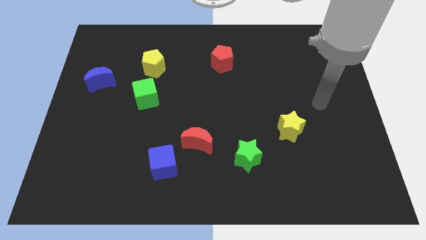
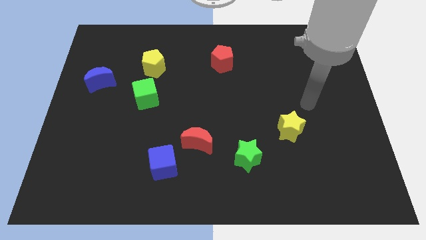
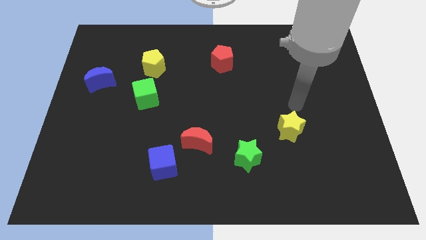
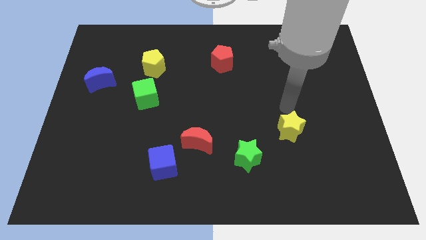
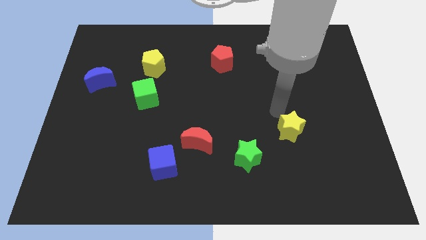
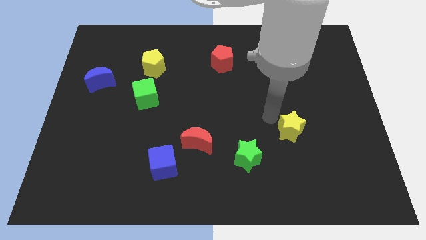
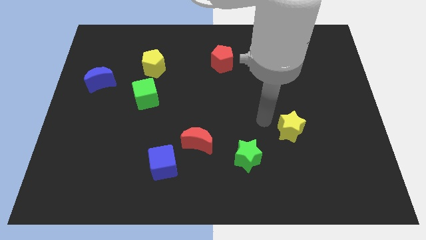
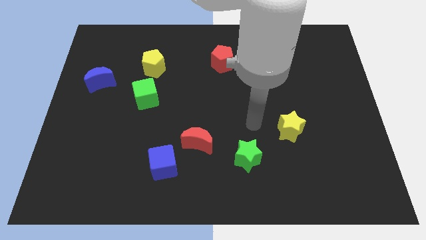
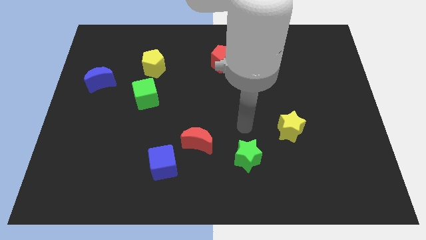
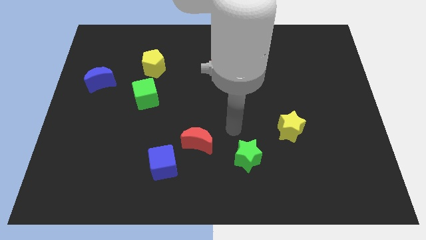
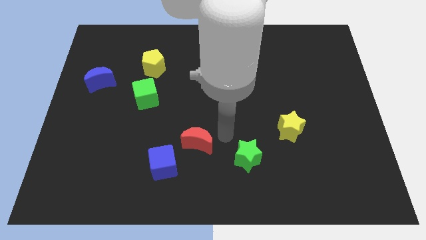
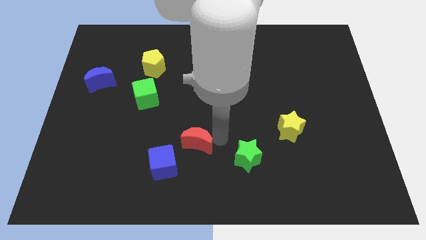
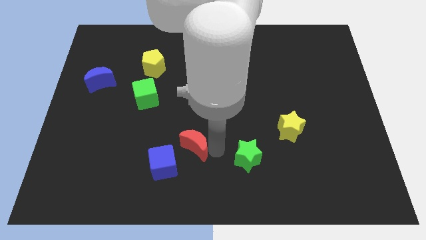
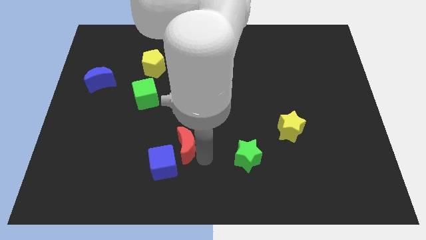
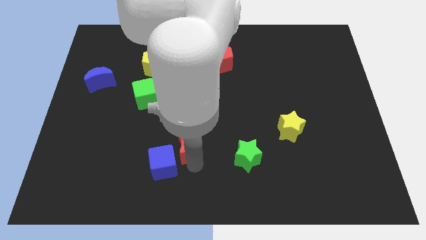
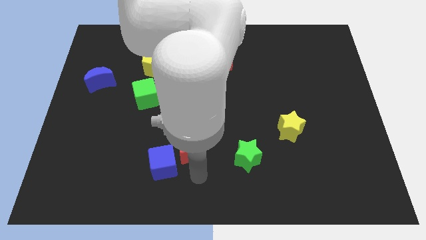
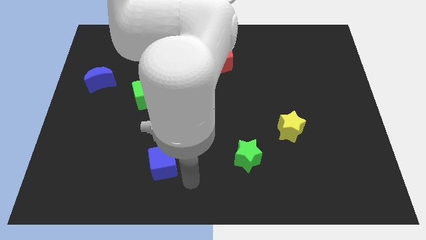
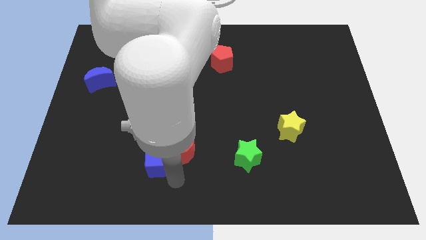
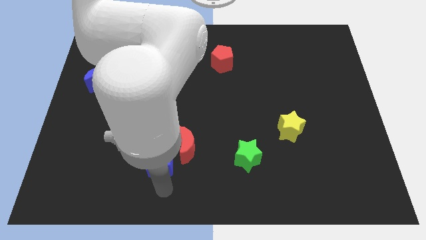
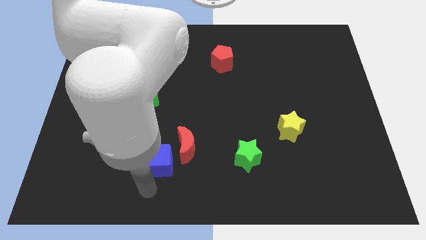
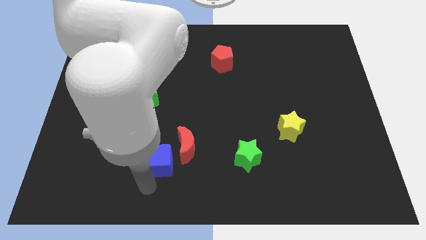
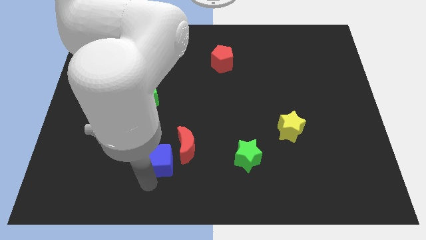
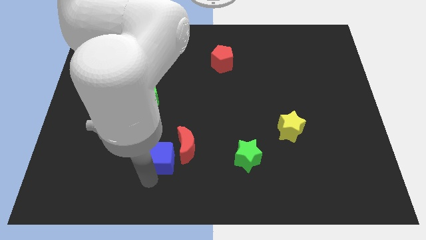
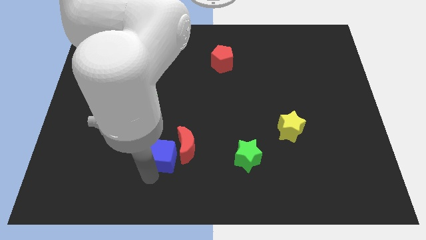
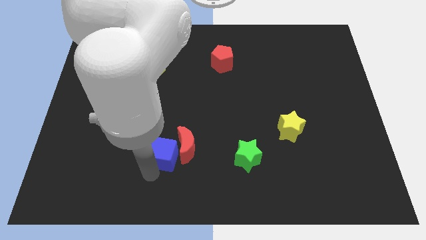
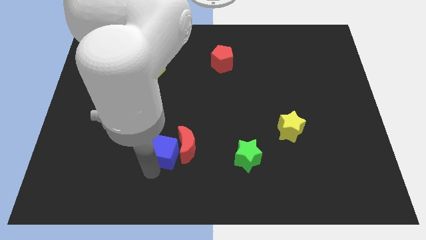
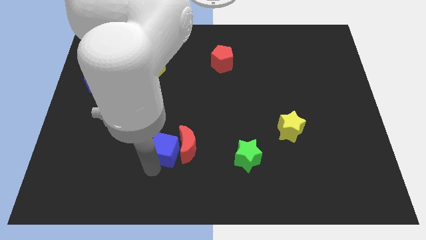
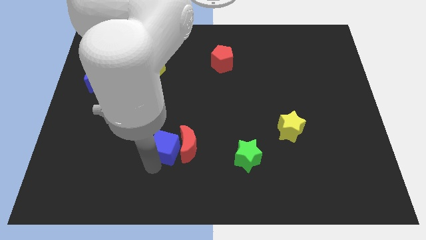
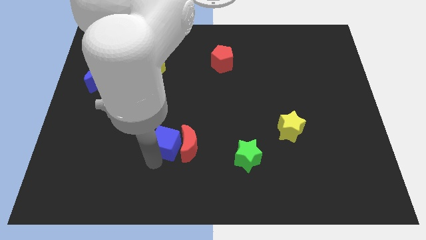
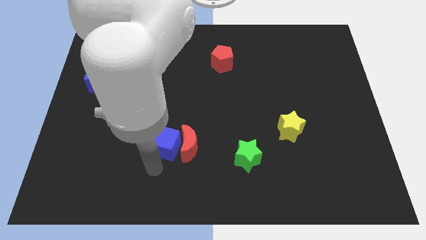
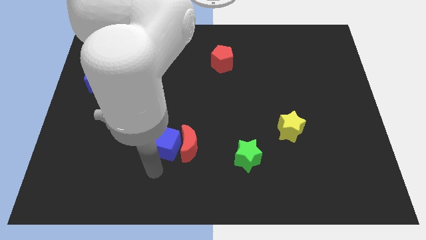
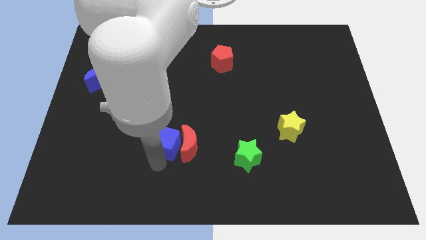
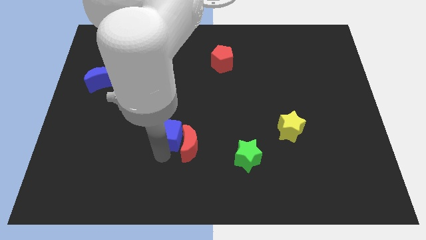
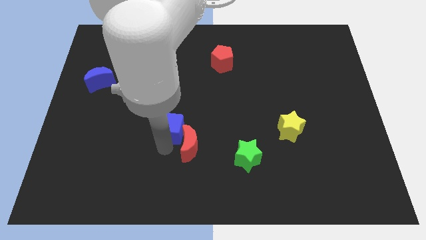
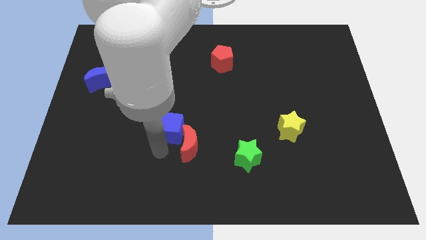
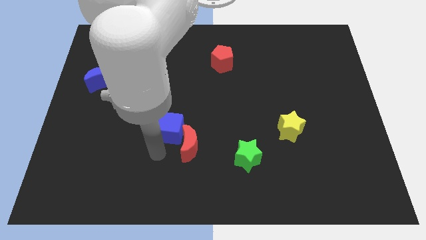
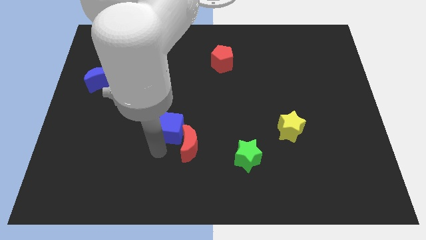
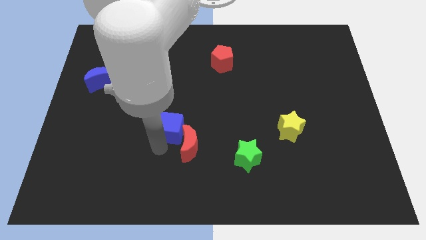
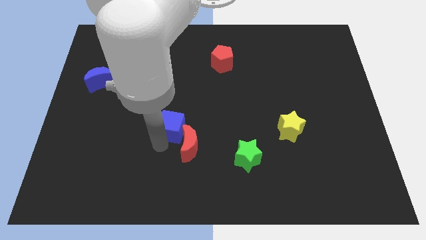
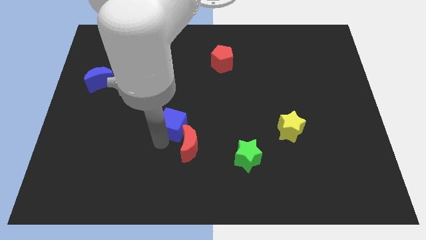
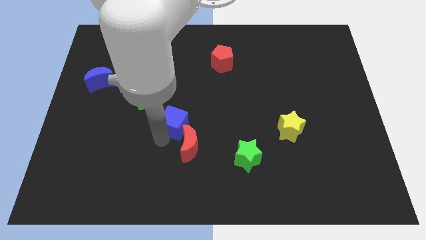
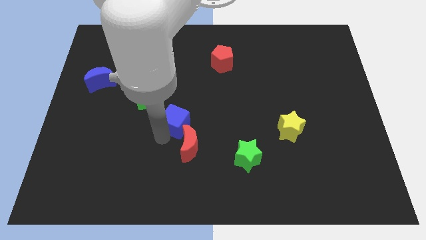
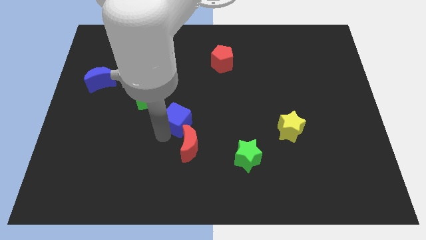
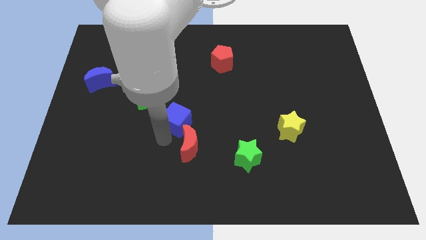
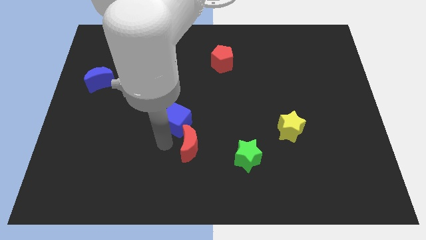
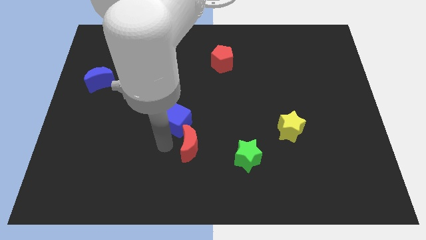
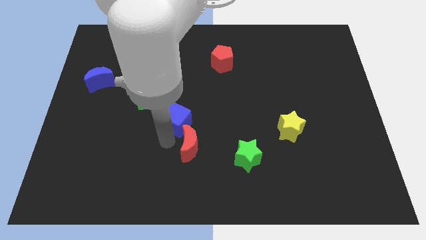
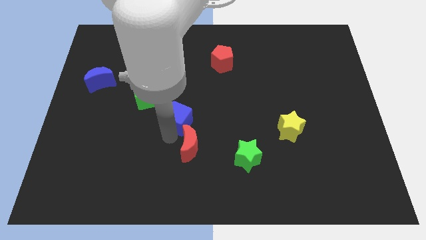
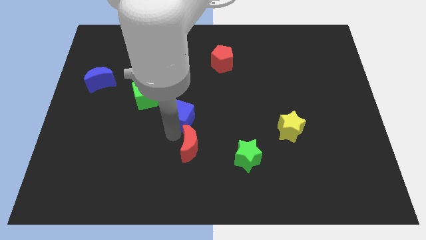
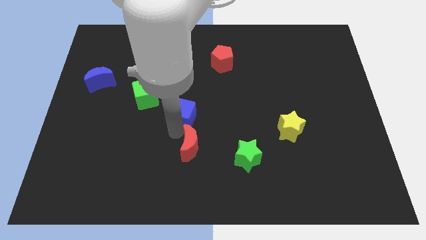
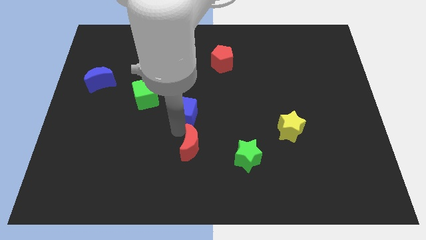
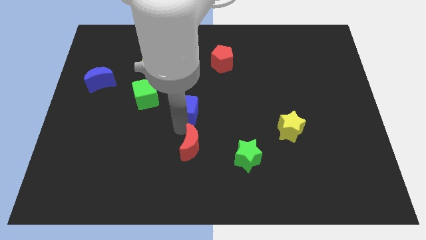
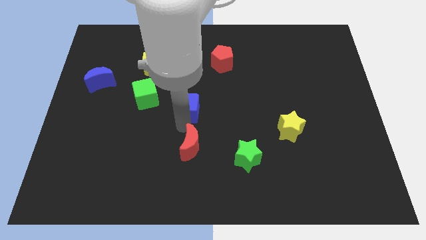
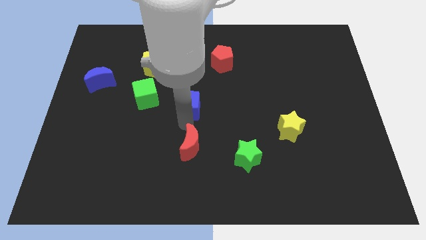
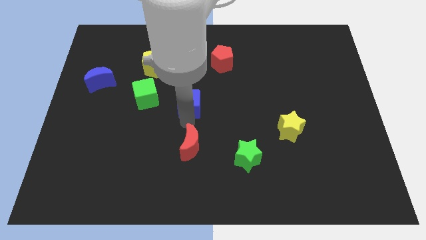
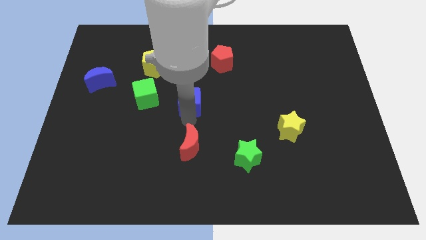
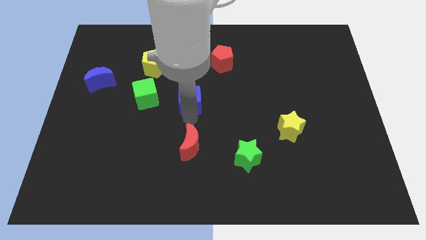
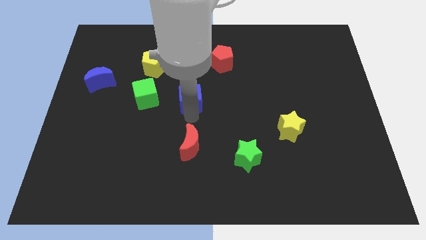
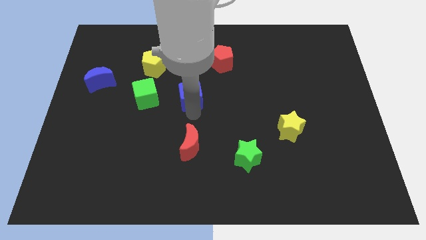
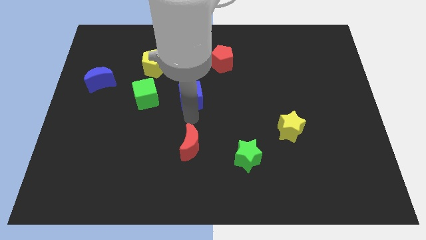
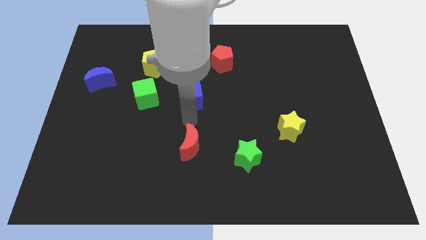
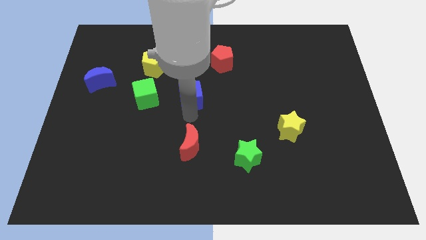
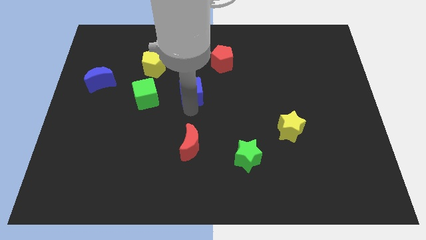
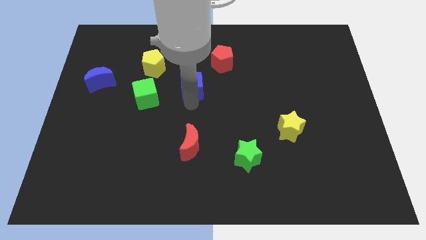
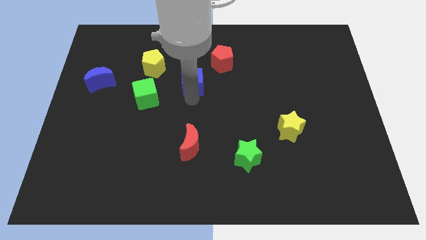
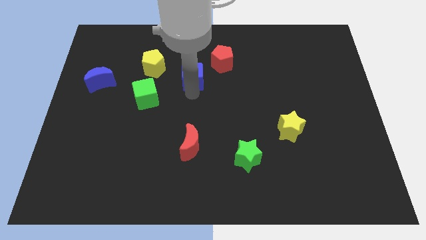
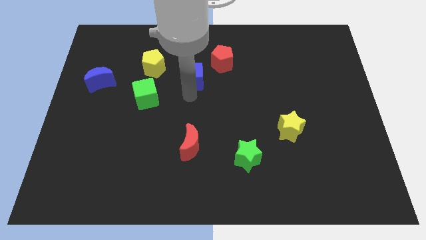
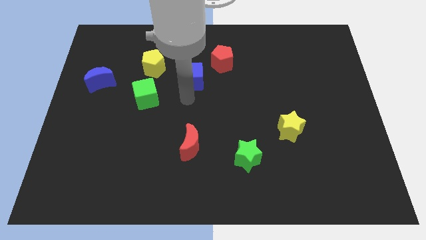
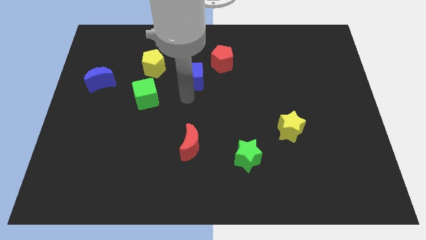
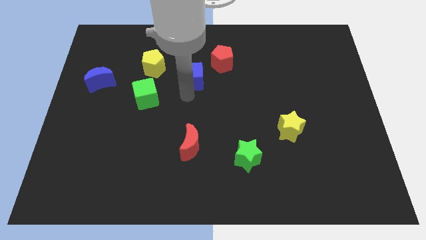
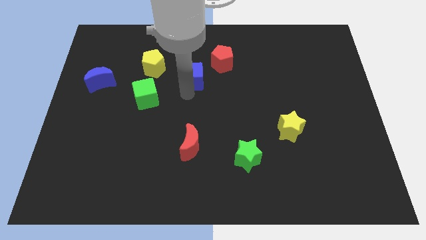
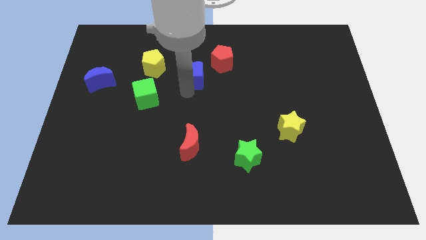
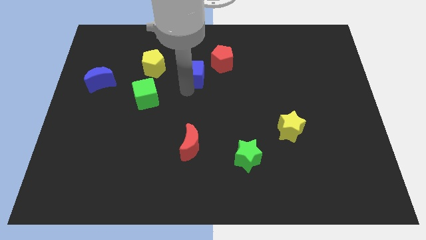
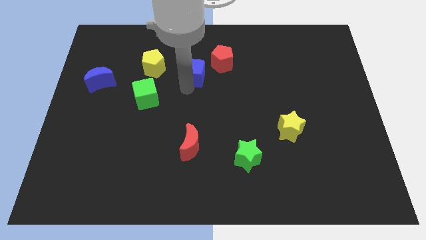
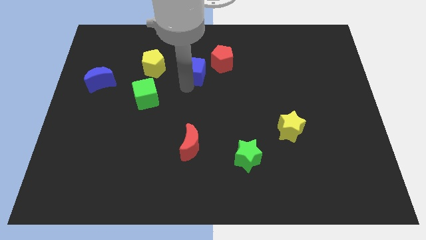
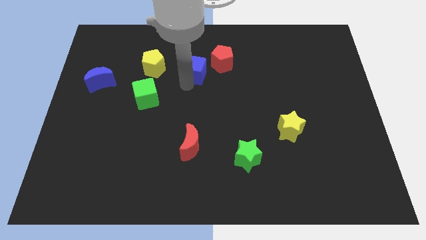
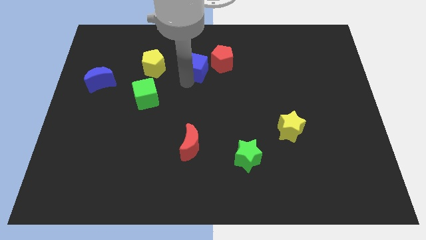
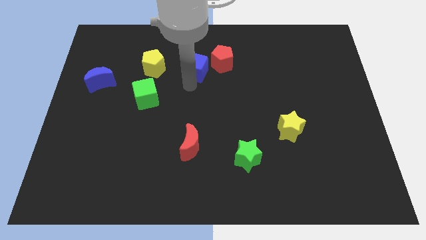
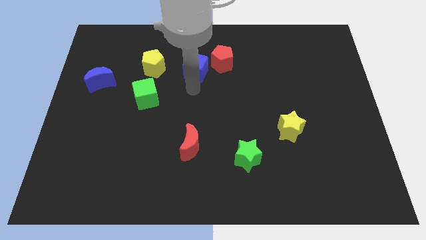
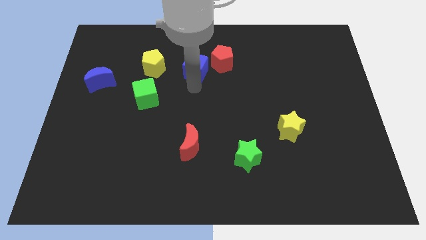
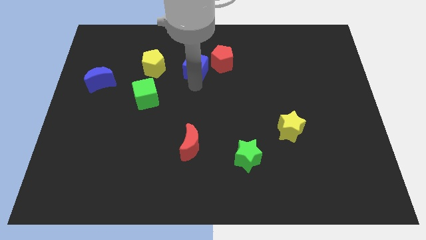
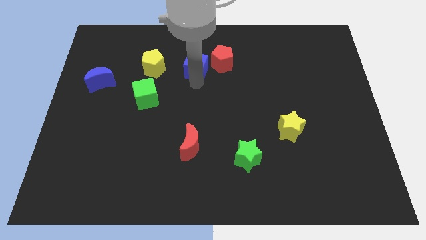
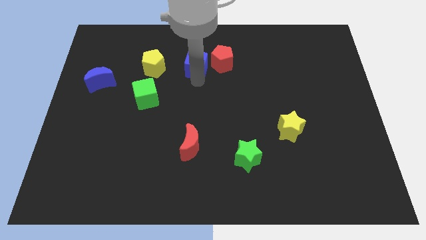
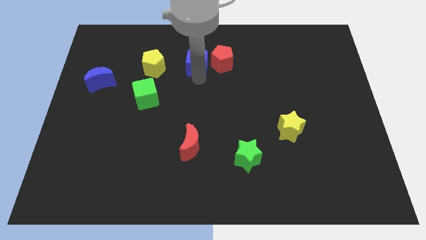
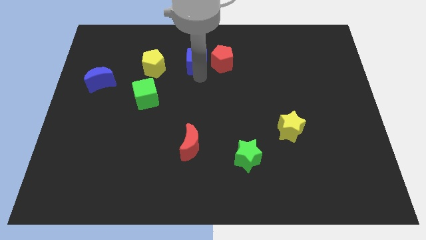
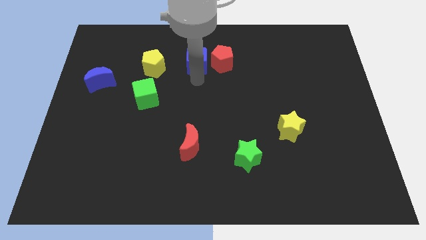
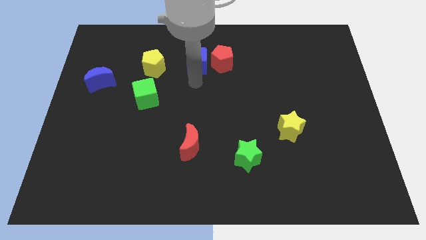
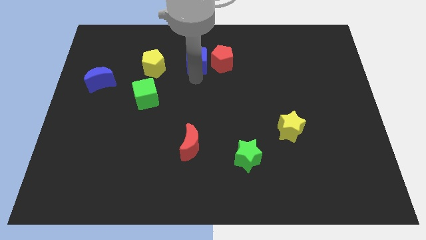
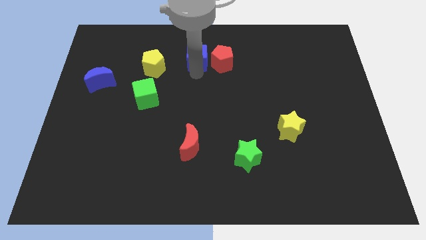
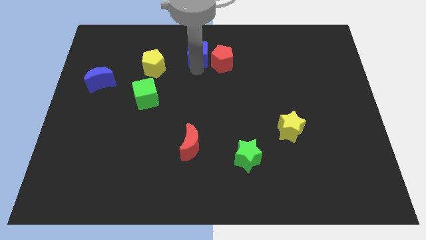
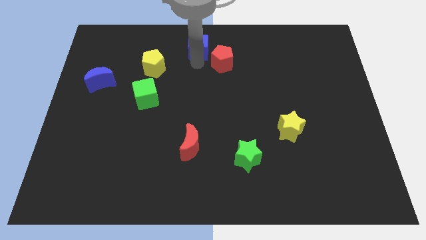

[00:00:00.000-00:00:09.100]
push the blue cube to the top
